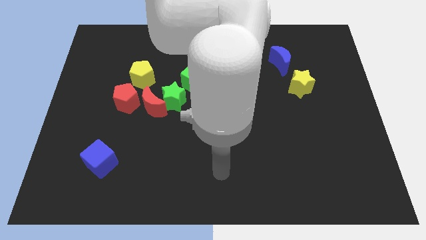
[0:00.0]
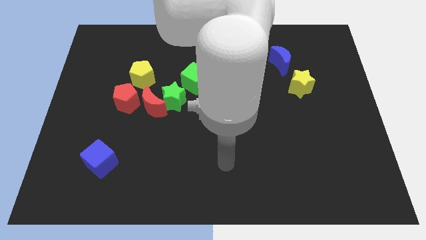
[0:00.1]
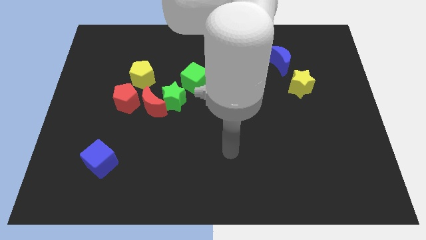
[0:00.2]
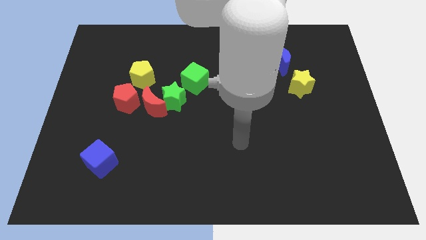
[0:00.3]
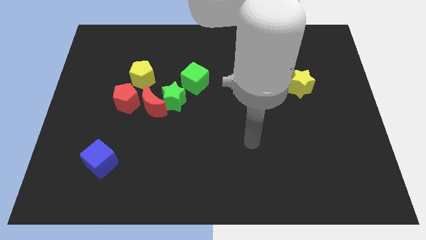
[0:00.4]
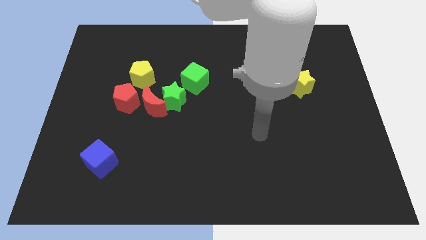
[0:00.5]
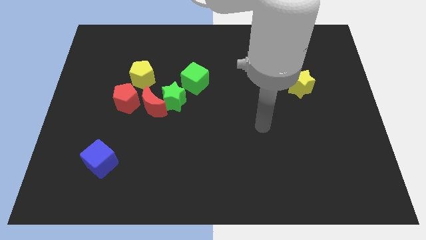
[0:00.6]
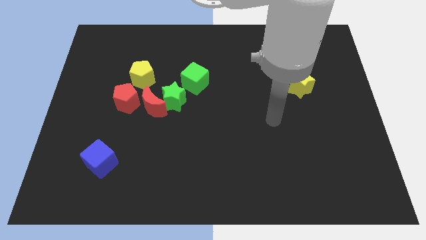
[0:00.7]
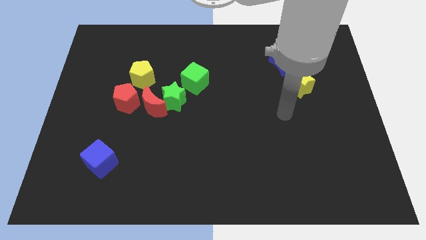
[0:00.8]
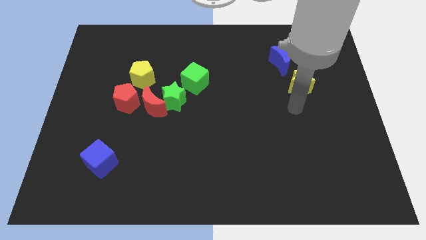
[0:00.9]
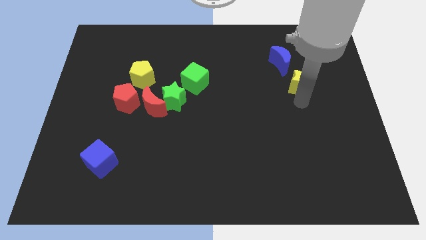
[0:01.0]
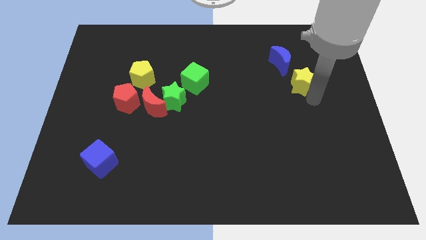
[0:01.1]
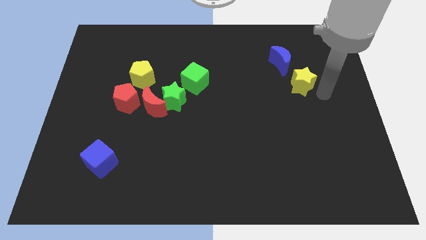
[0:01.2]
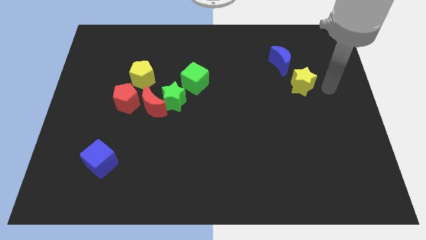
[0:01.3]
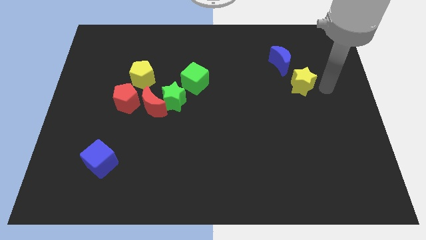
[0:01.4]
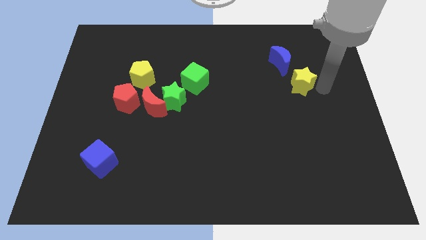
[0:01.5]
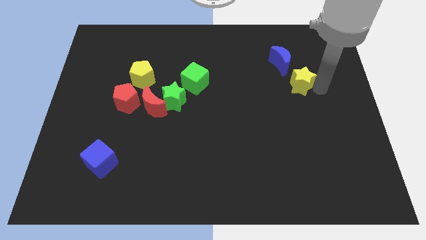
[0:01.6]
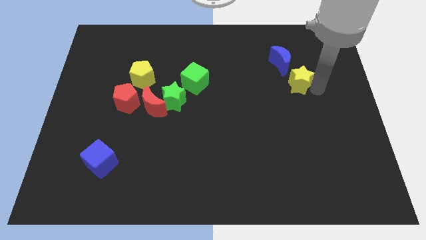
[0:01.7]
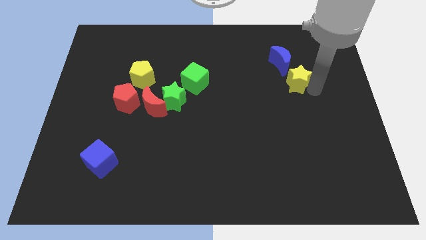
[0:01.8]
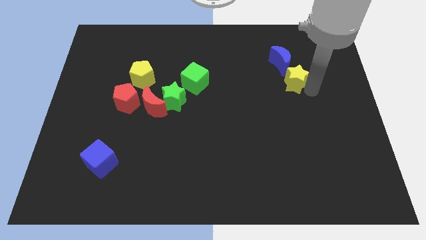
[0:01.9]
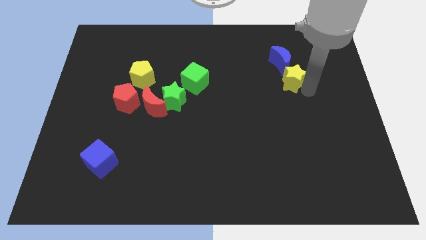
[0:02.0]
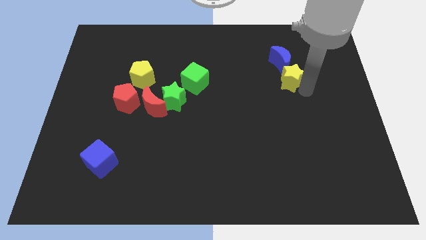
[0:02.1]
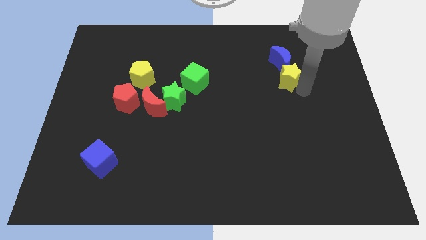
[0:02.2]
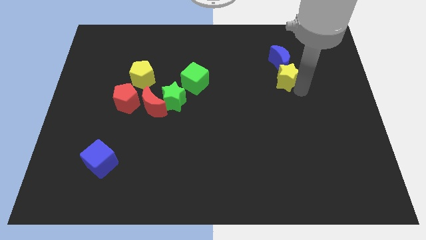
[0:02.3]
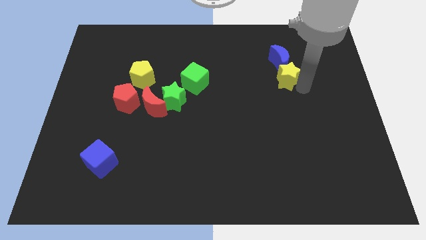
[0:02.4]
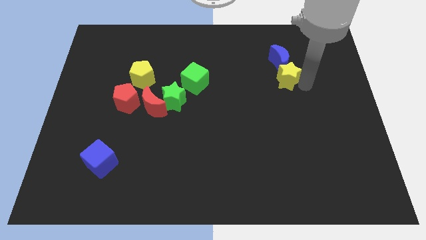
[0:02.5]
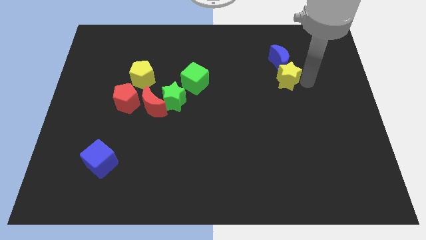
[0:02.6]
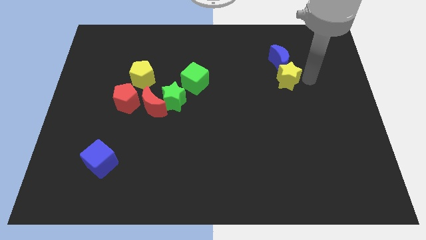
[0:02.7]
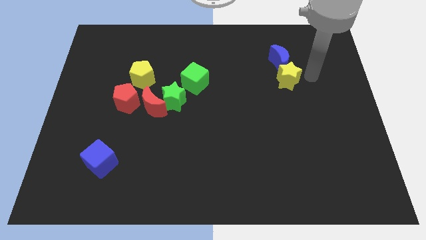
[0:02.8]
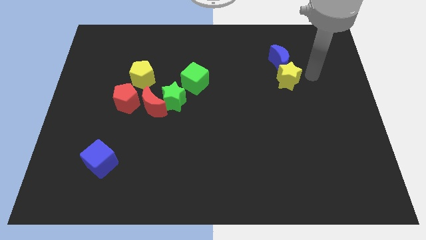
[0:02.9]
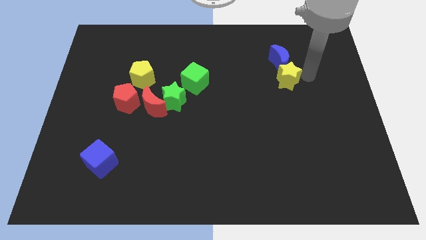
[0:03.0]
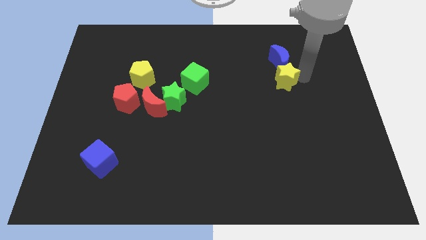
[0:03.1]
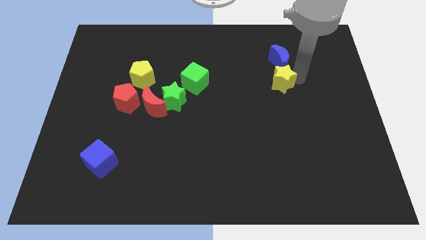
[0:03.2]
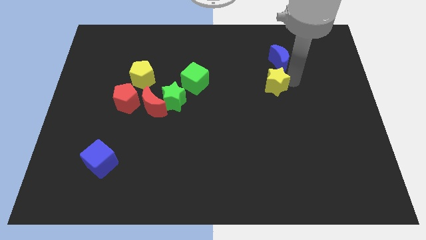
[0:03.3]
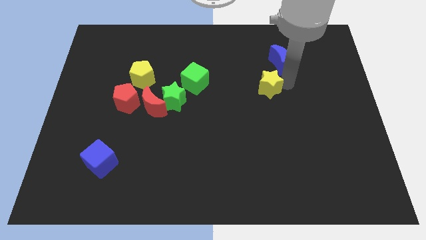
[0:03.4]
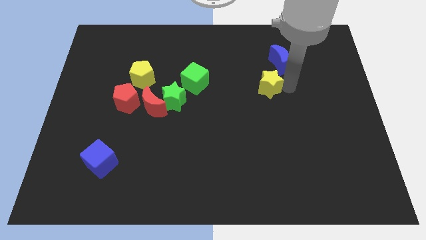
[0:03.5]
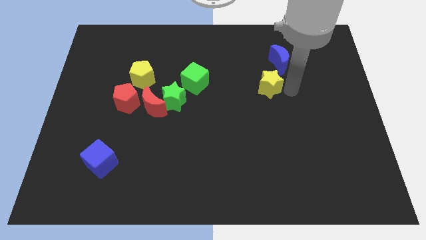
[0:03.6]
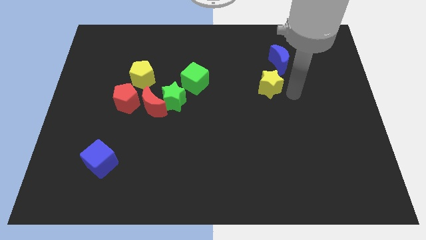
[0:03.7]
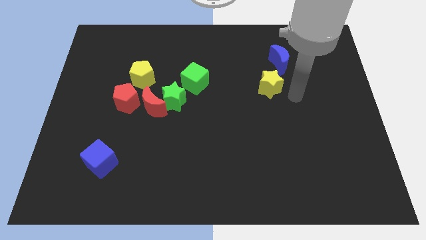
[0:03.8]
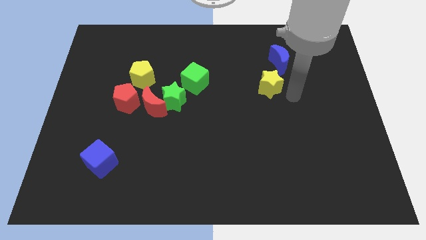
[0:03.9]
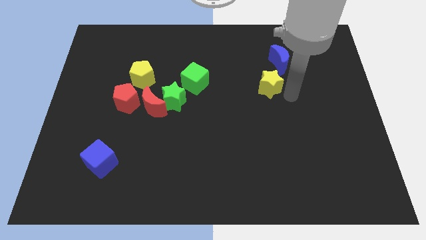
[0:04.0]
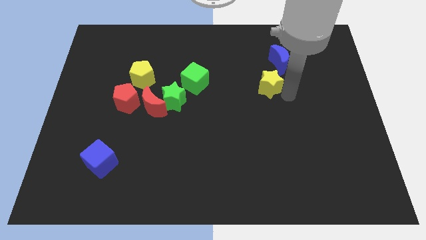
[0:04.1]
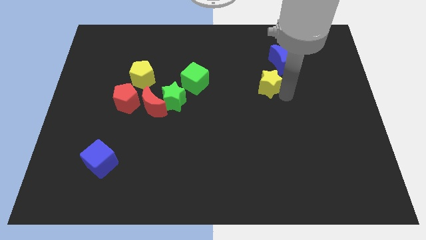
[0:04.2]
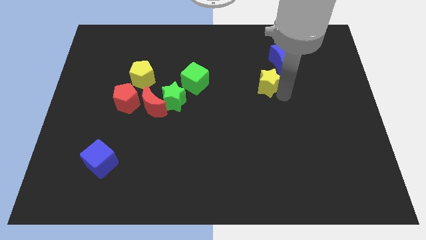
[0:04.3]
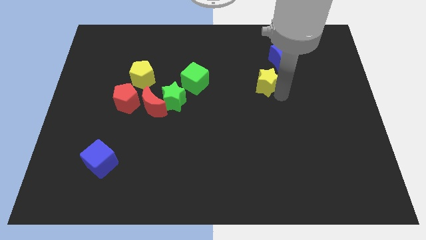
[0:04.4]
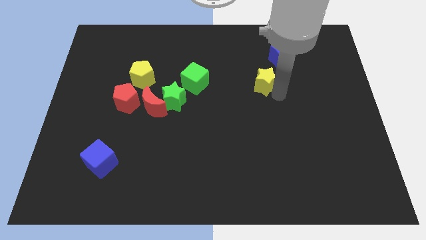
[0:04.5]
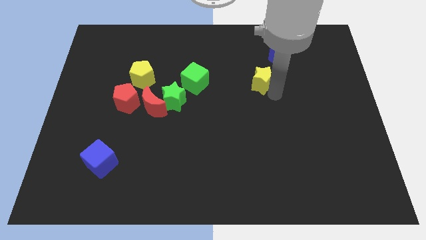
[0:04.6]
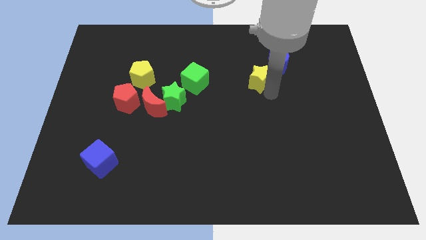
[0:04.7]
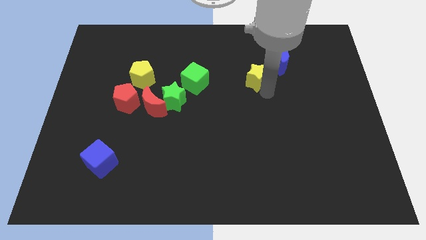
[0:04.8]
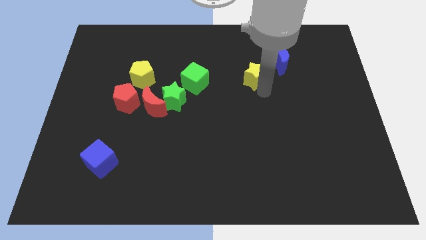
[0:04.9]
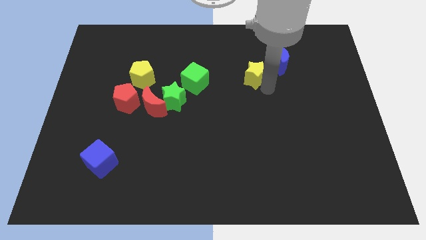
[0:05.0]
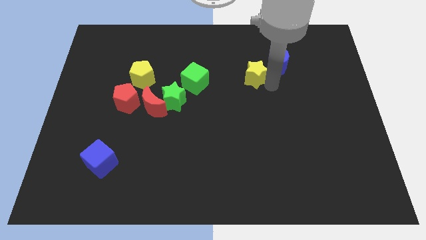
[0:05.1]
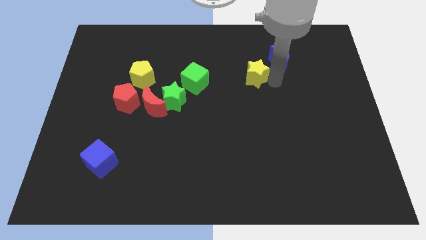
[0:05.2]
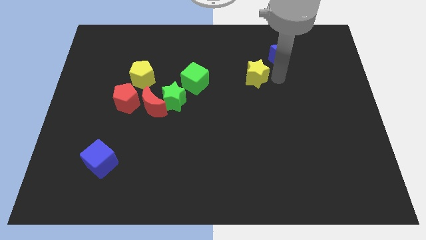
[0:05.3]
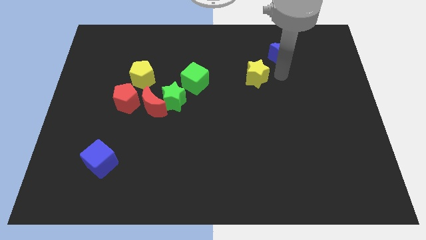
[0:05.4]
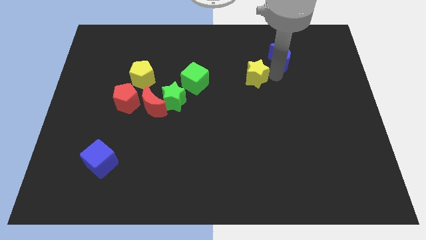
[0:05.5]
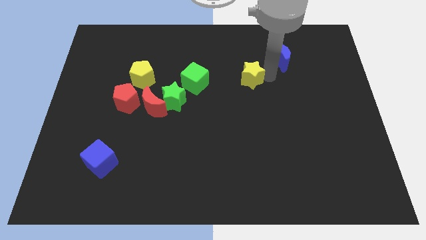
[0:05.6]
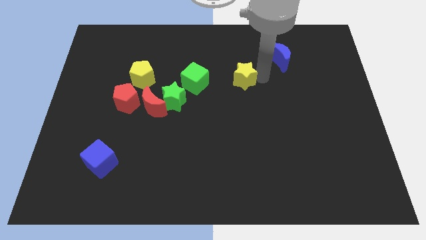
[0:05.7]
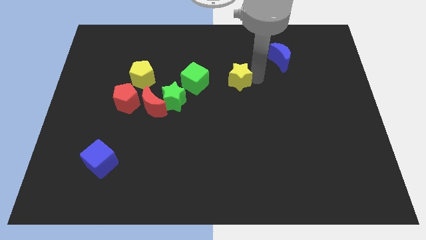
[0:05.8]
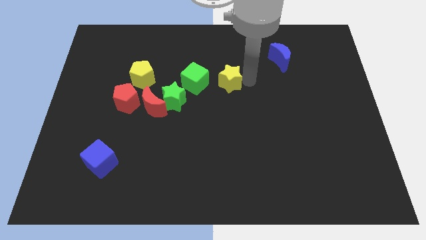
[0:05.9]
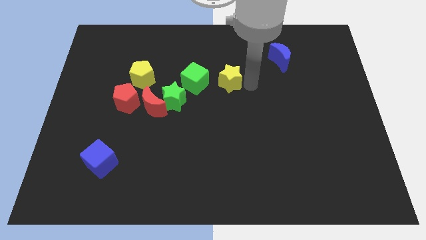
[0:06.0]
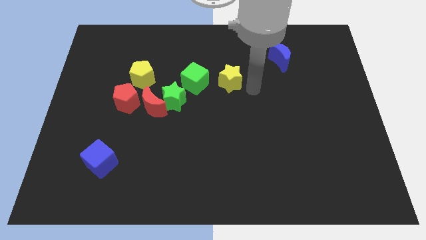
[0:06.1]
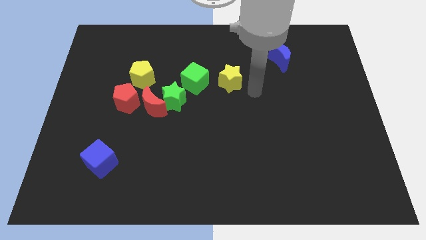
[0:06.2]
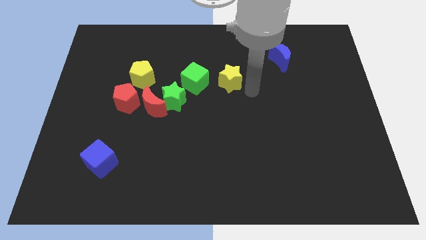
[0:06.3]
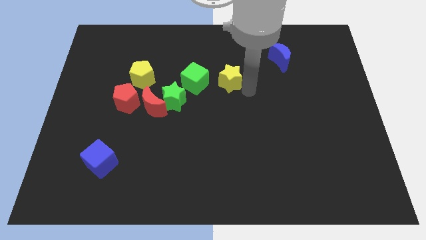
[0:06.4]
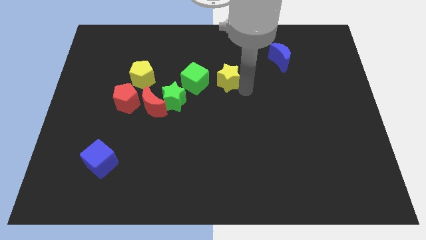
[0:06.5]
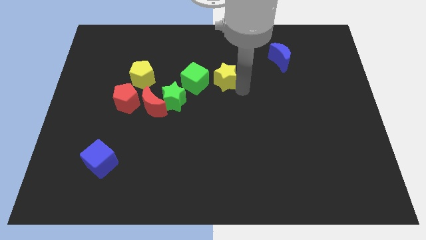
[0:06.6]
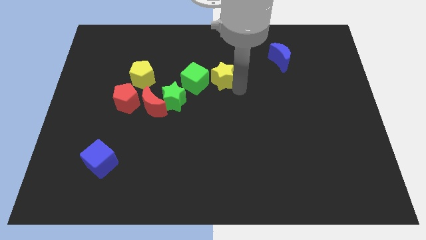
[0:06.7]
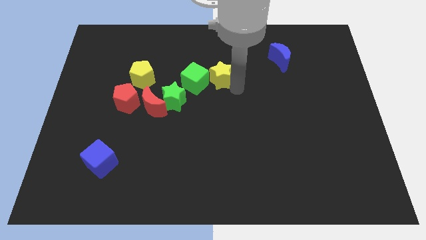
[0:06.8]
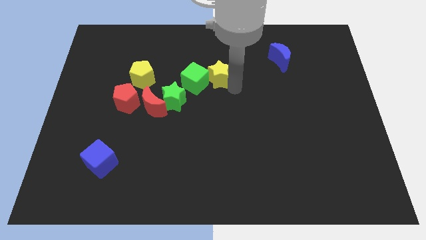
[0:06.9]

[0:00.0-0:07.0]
move the yellow star left

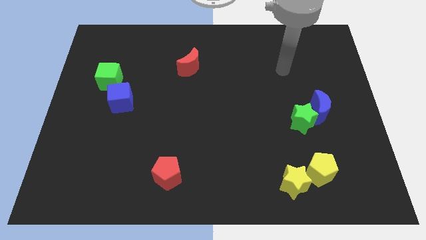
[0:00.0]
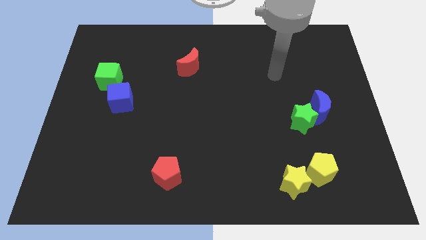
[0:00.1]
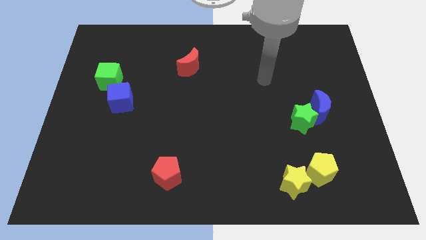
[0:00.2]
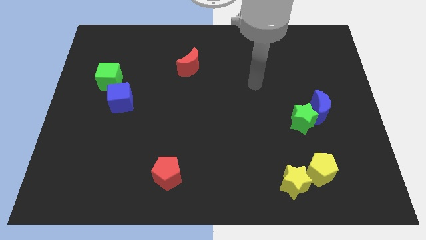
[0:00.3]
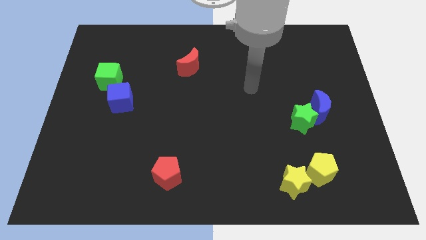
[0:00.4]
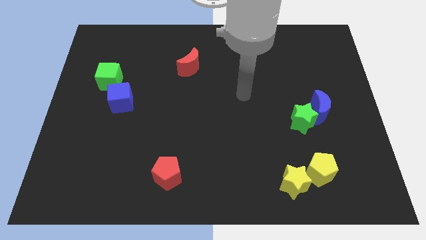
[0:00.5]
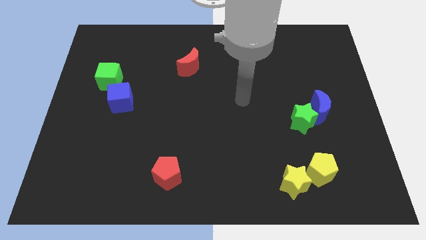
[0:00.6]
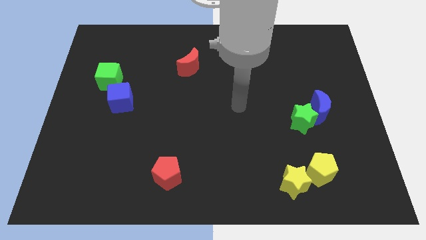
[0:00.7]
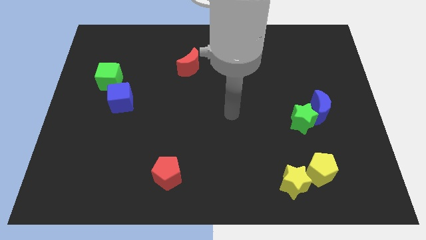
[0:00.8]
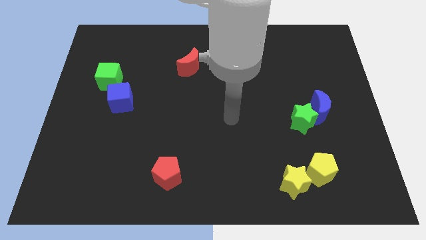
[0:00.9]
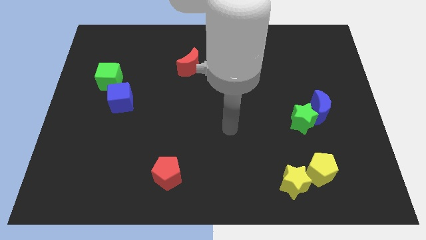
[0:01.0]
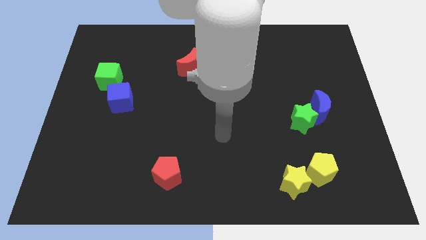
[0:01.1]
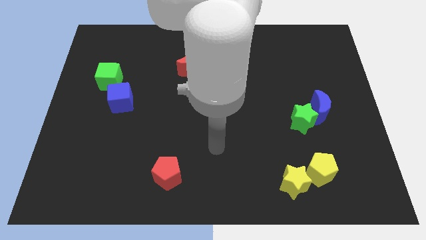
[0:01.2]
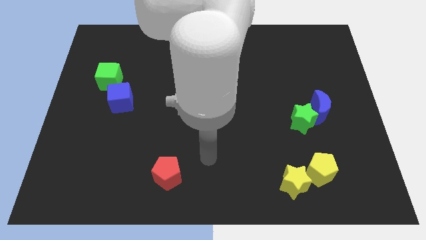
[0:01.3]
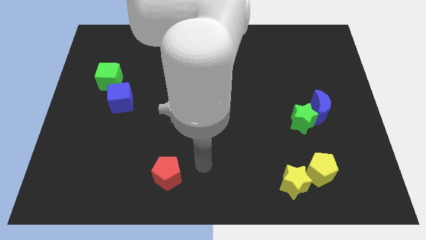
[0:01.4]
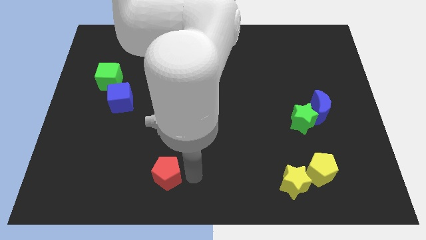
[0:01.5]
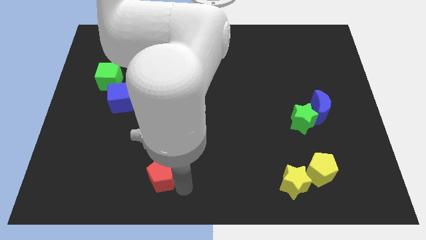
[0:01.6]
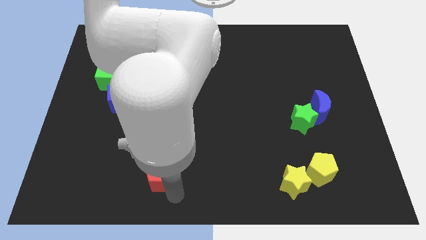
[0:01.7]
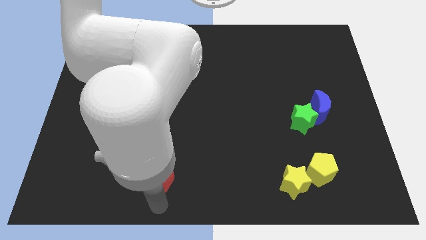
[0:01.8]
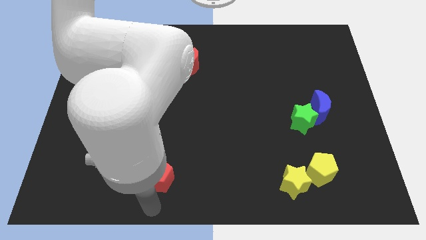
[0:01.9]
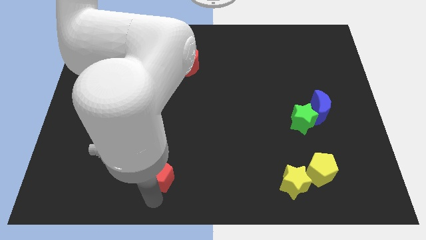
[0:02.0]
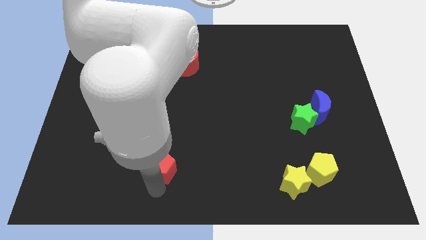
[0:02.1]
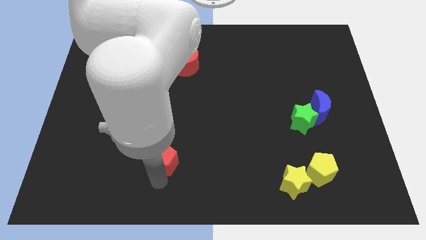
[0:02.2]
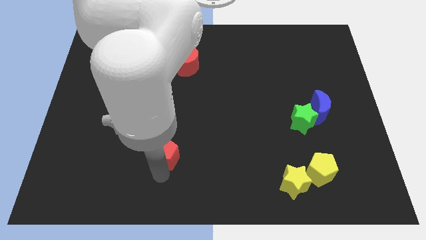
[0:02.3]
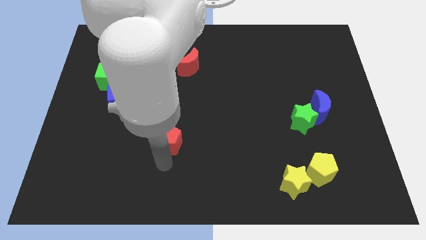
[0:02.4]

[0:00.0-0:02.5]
move the red pentagon a little upwards
